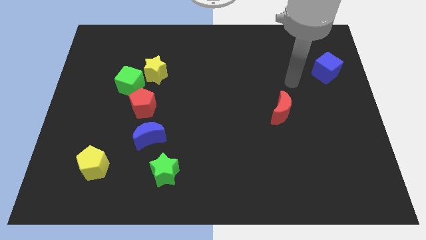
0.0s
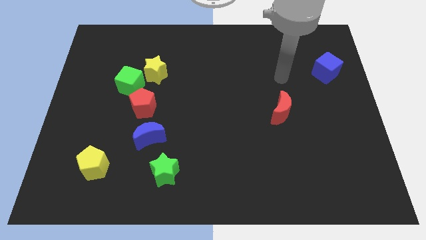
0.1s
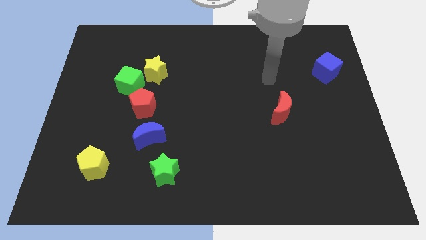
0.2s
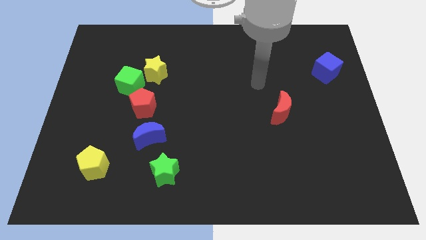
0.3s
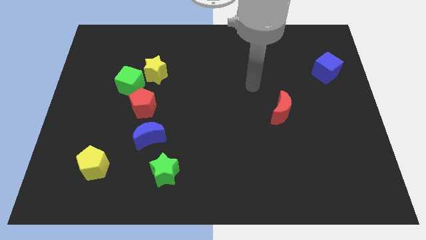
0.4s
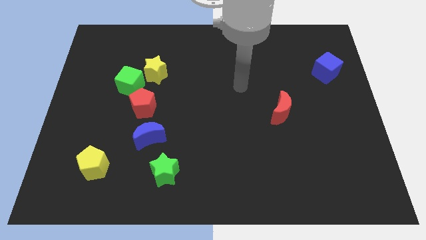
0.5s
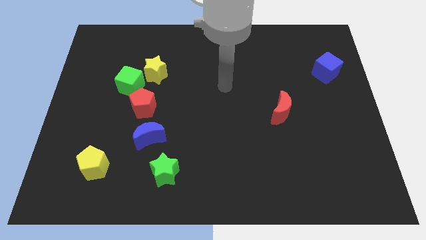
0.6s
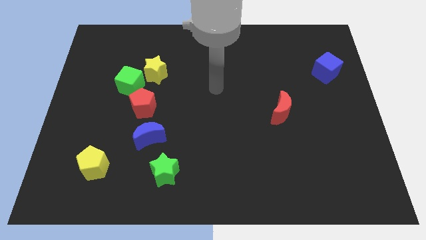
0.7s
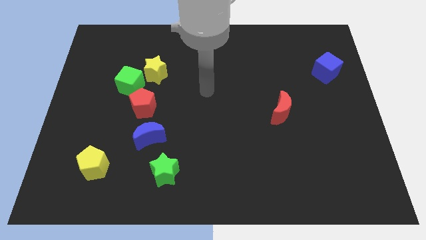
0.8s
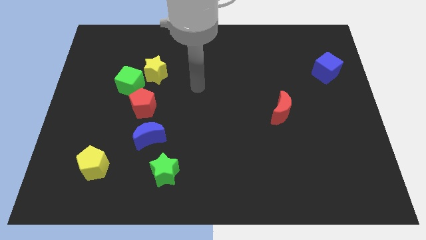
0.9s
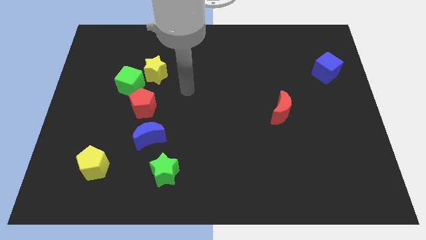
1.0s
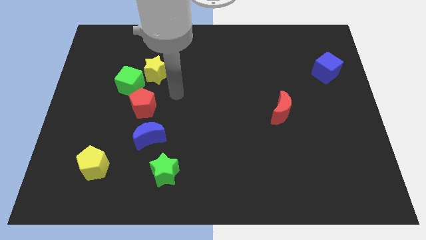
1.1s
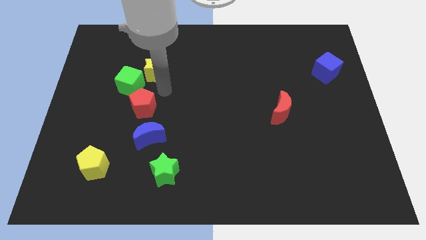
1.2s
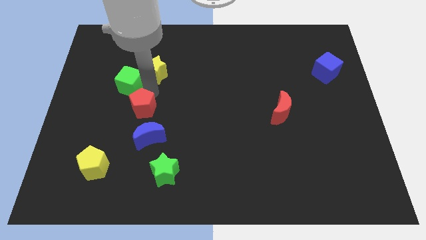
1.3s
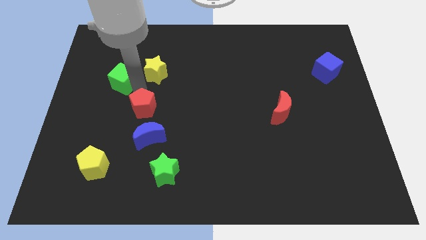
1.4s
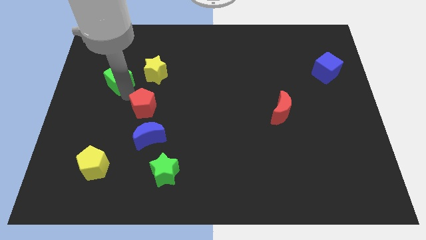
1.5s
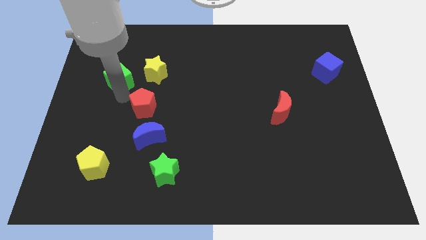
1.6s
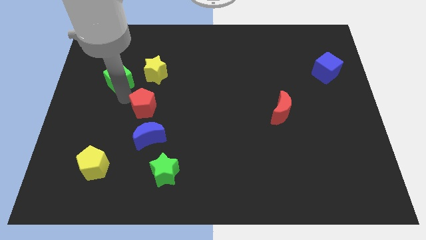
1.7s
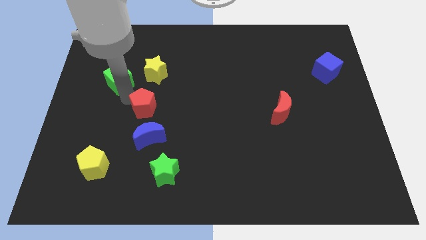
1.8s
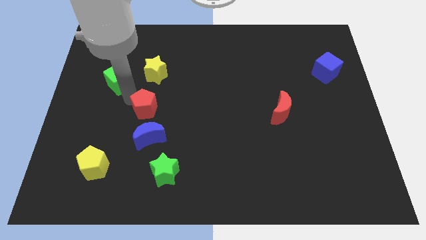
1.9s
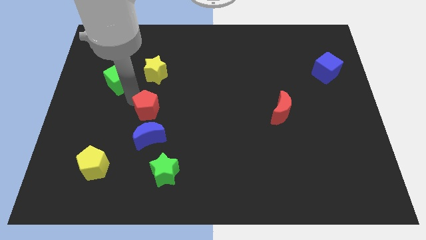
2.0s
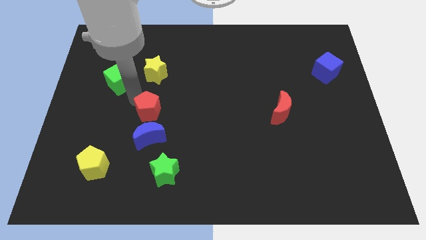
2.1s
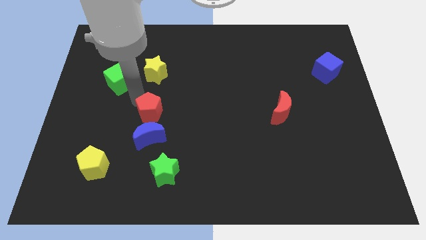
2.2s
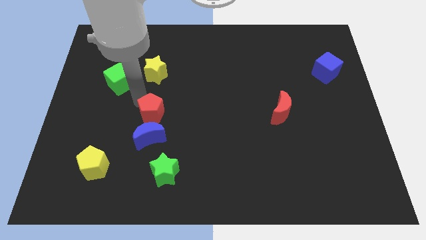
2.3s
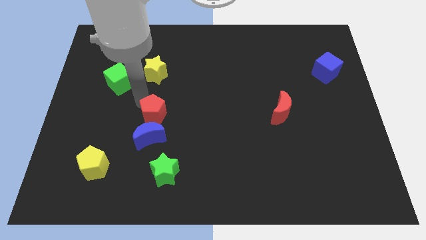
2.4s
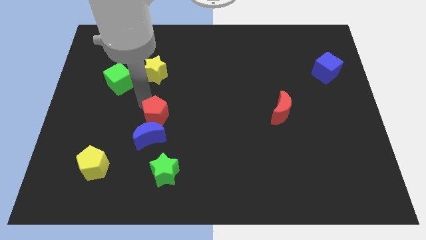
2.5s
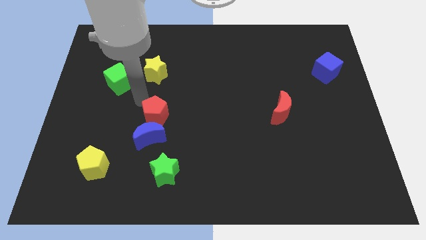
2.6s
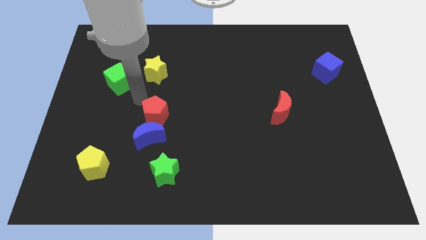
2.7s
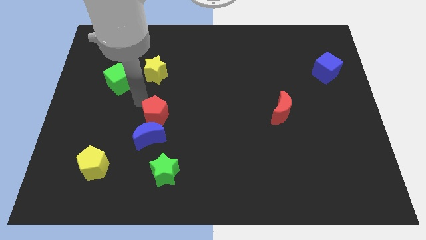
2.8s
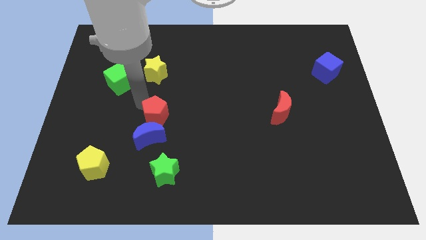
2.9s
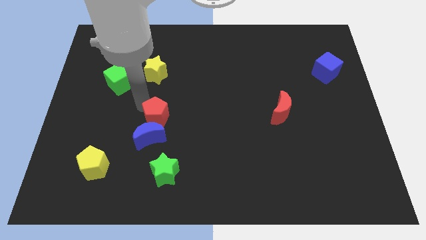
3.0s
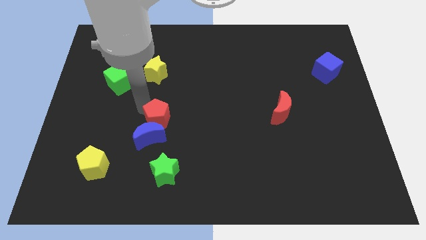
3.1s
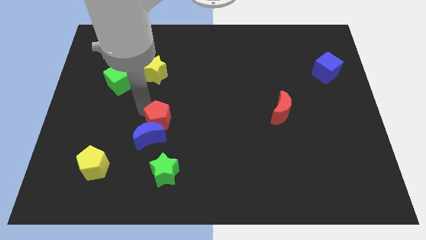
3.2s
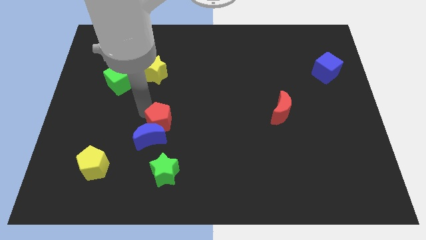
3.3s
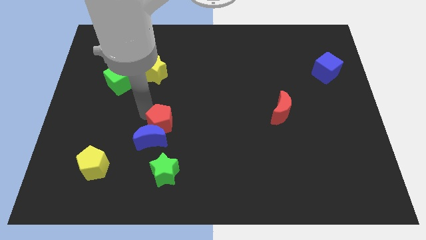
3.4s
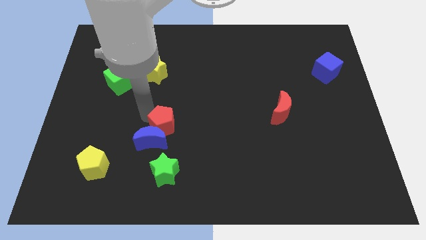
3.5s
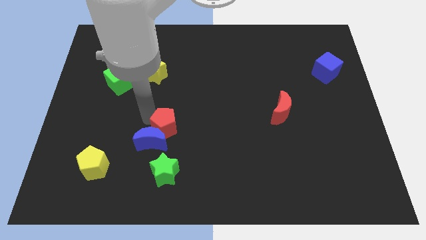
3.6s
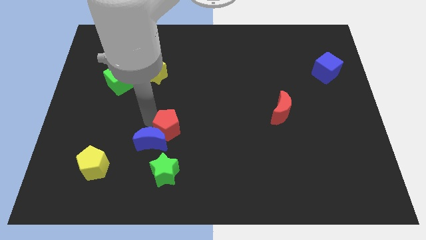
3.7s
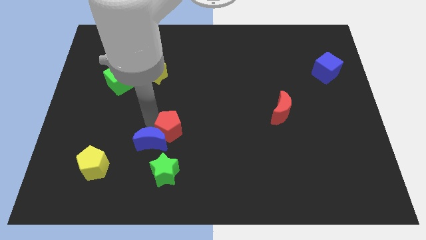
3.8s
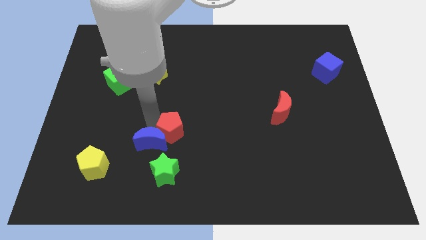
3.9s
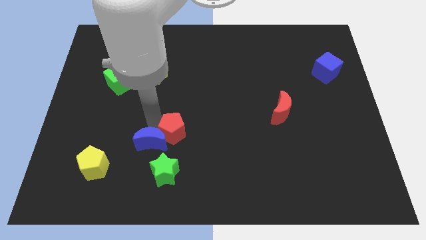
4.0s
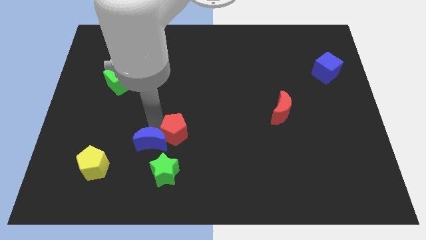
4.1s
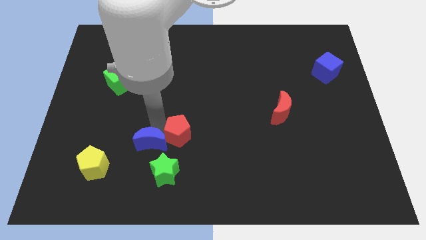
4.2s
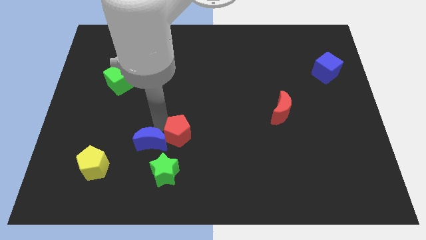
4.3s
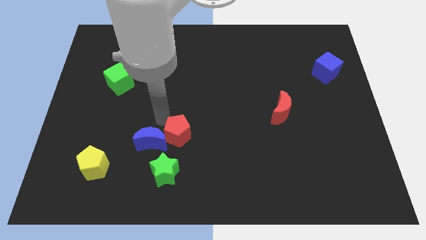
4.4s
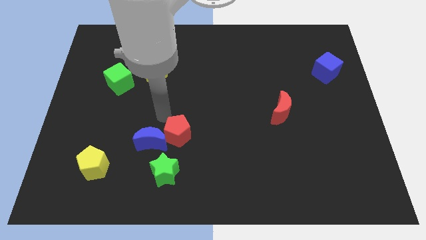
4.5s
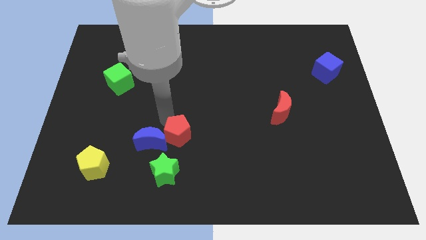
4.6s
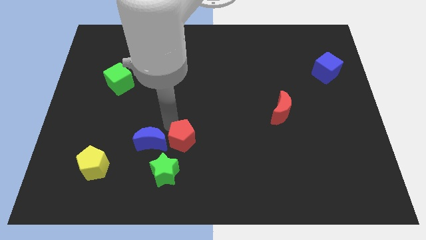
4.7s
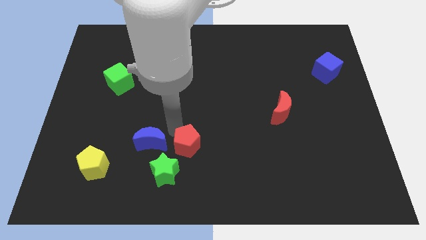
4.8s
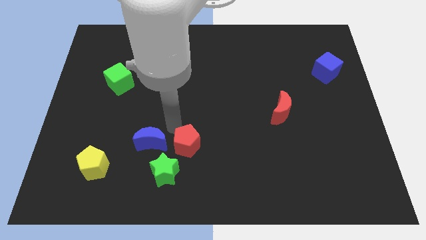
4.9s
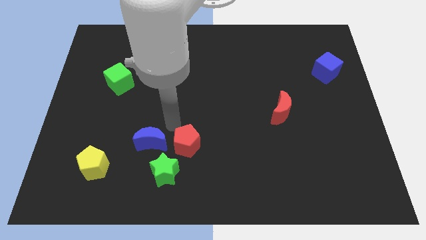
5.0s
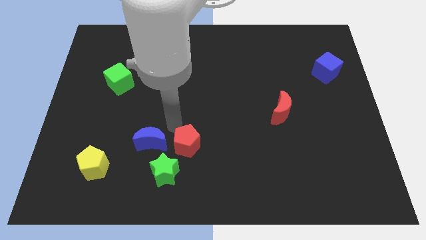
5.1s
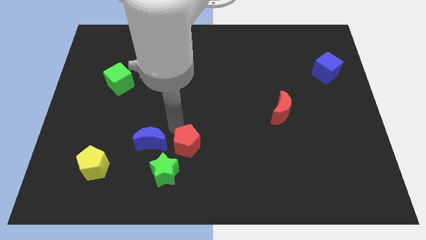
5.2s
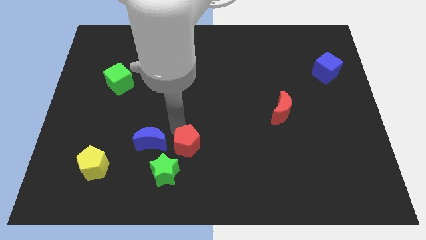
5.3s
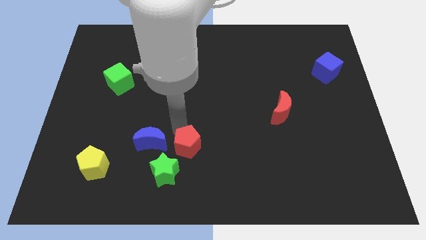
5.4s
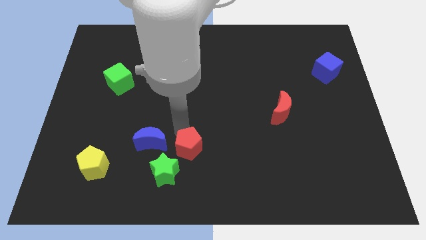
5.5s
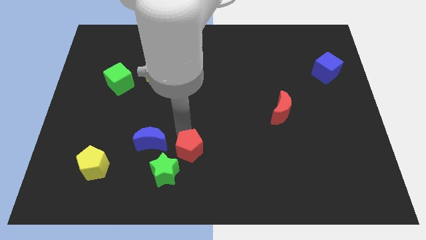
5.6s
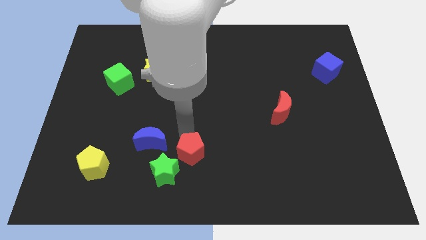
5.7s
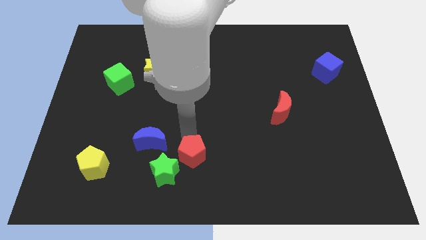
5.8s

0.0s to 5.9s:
put the red pentagon to the right side of the green star
